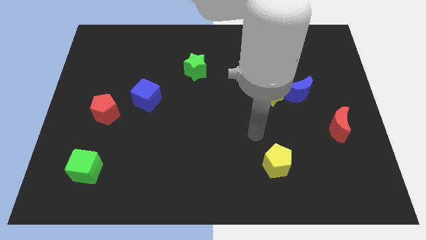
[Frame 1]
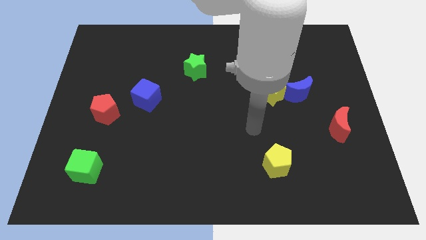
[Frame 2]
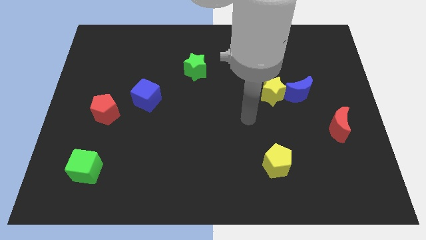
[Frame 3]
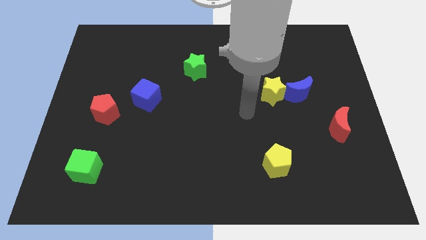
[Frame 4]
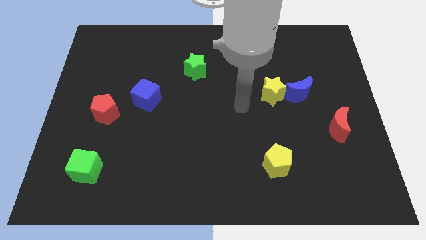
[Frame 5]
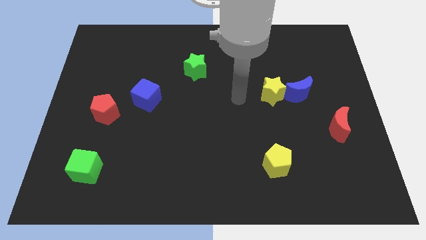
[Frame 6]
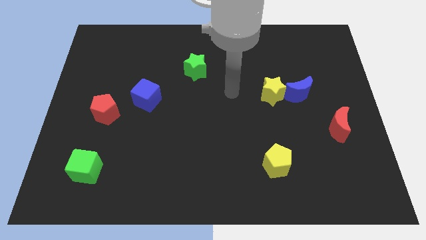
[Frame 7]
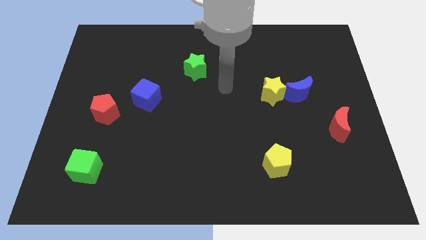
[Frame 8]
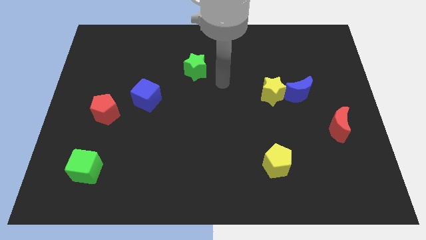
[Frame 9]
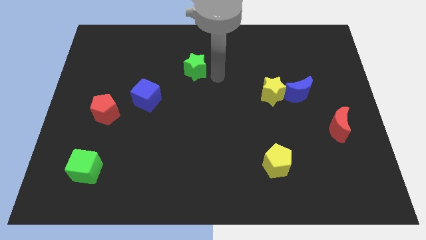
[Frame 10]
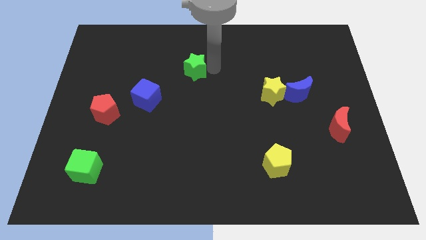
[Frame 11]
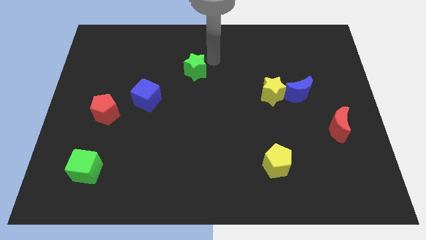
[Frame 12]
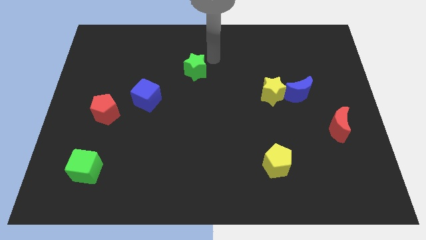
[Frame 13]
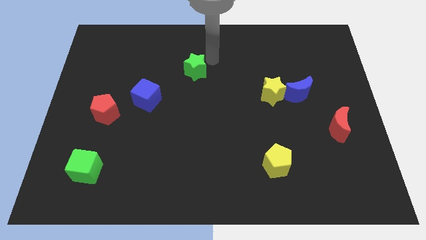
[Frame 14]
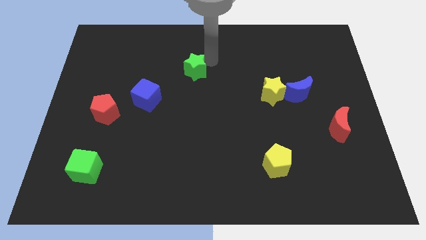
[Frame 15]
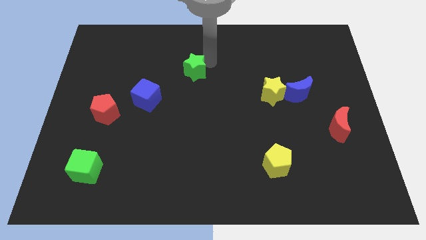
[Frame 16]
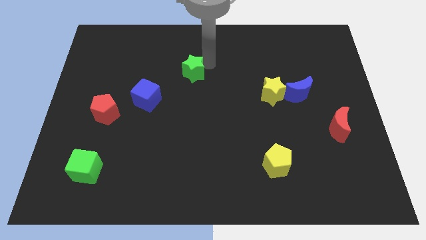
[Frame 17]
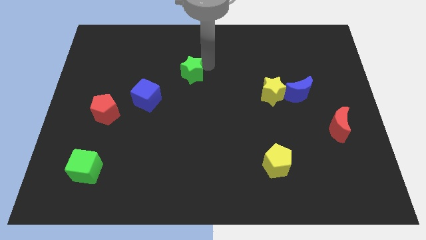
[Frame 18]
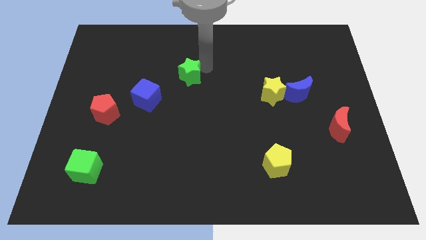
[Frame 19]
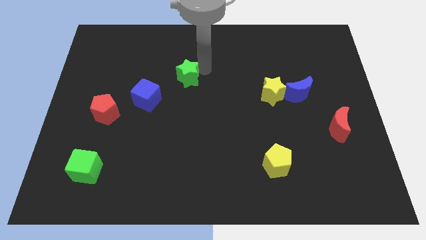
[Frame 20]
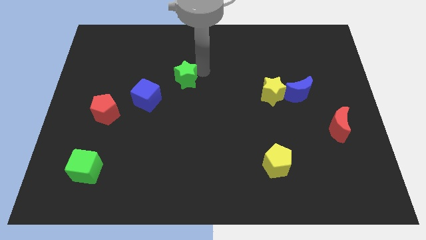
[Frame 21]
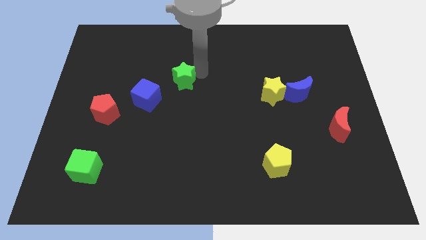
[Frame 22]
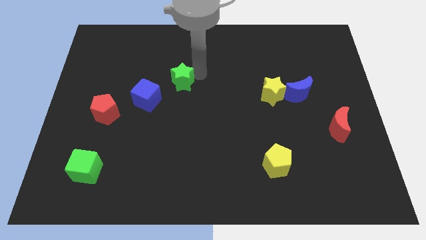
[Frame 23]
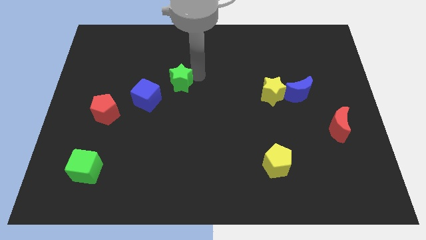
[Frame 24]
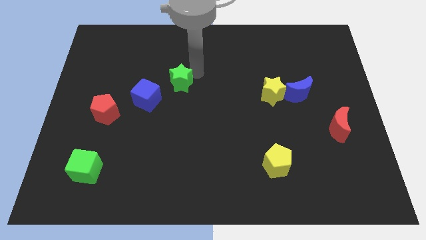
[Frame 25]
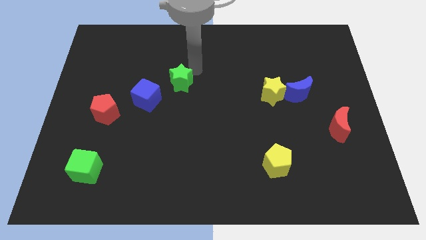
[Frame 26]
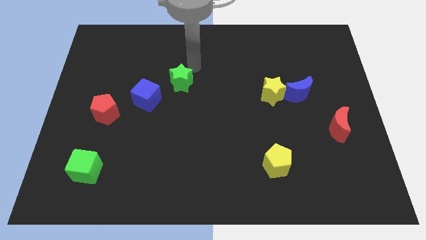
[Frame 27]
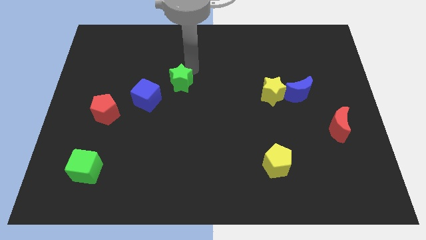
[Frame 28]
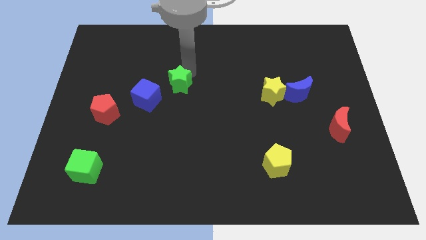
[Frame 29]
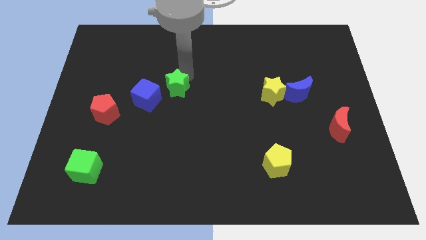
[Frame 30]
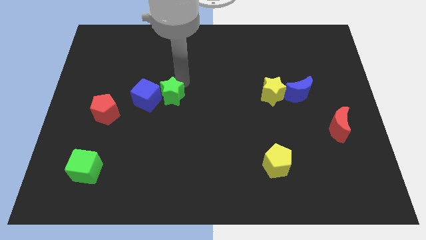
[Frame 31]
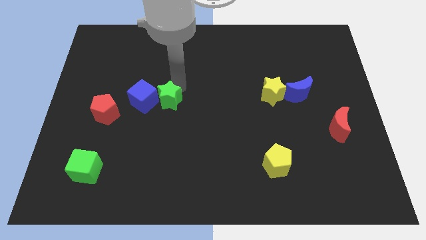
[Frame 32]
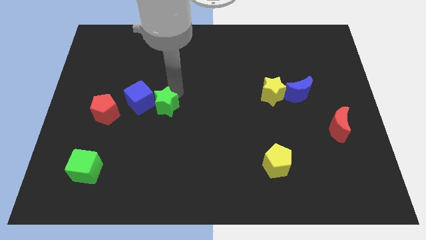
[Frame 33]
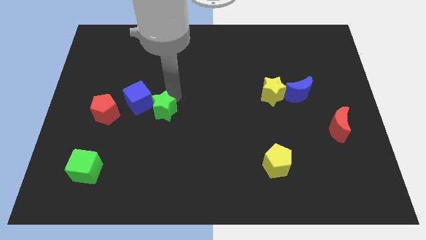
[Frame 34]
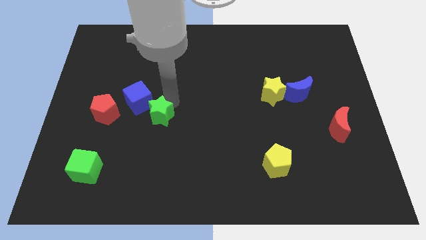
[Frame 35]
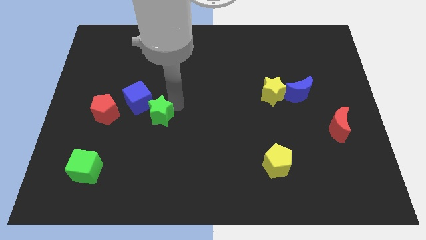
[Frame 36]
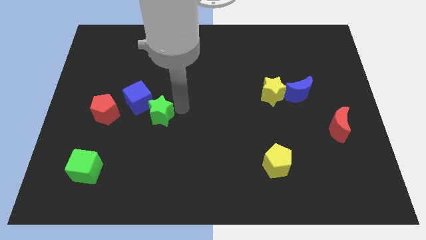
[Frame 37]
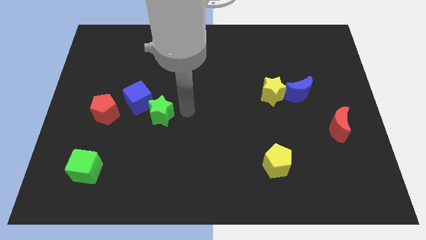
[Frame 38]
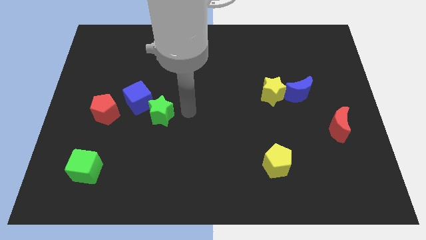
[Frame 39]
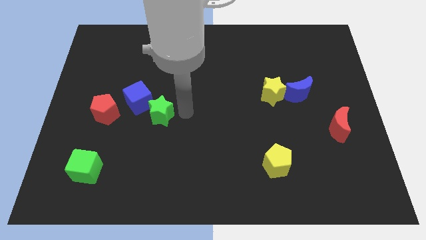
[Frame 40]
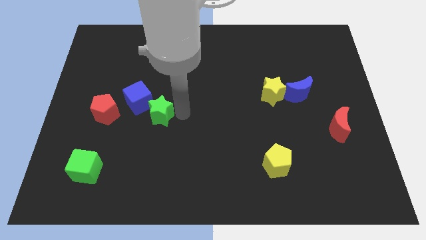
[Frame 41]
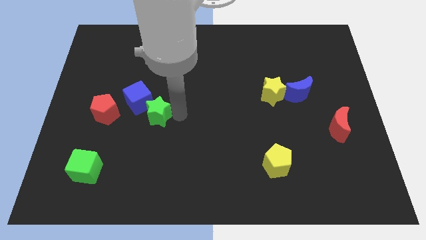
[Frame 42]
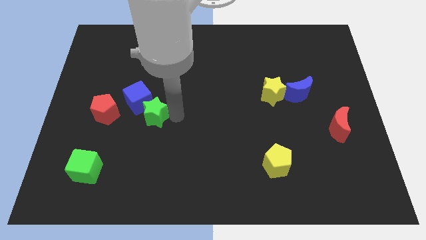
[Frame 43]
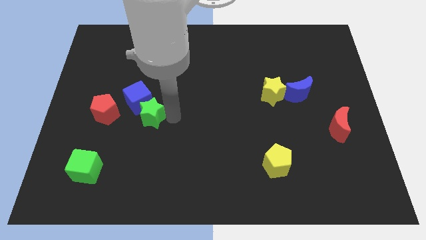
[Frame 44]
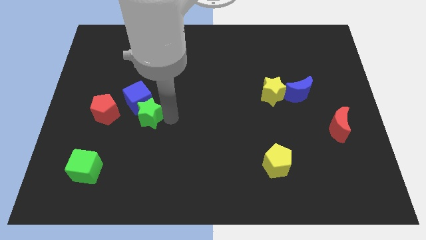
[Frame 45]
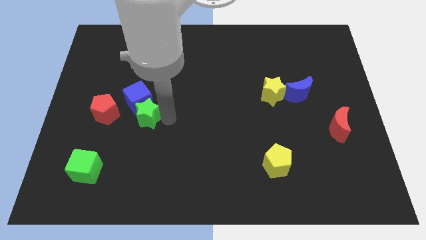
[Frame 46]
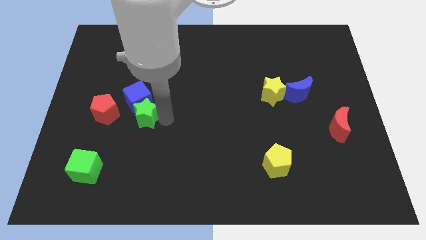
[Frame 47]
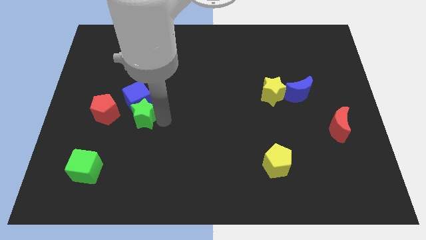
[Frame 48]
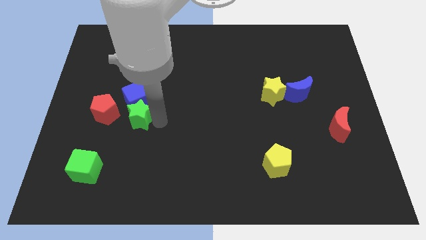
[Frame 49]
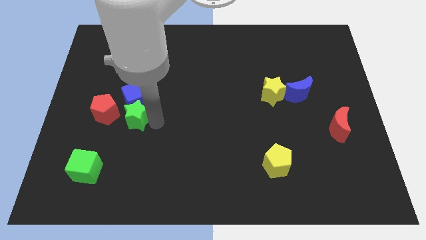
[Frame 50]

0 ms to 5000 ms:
push the green star down and then to the left

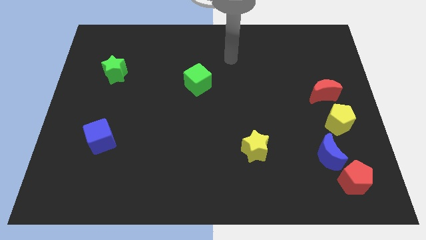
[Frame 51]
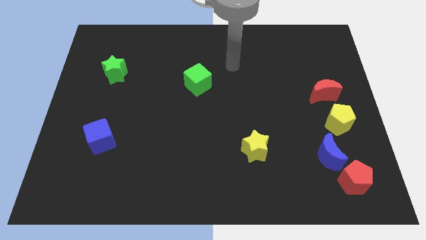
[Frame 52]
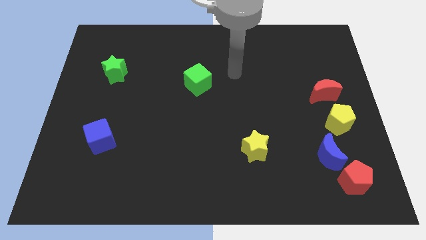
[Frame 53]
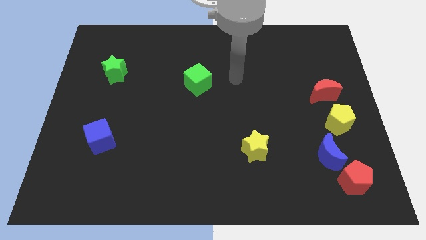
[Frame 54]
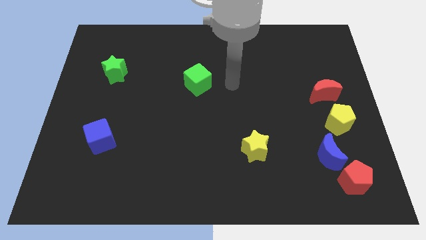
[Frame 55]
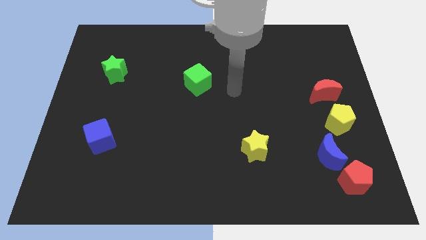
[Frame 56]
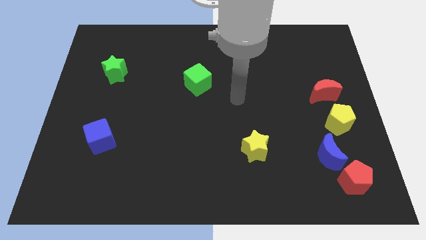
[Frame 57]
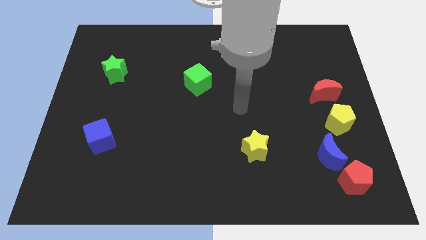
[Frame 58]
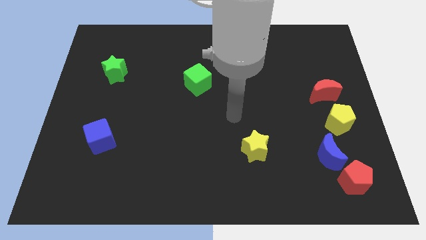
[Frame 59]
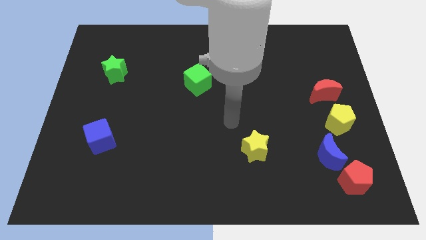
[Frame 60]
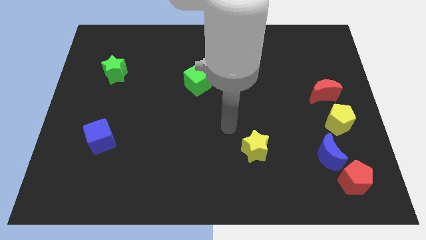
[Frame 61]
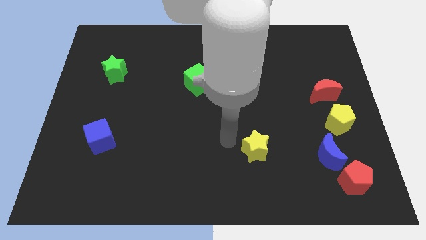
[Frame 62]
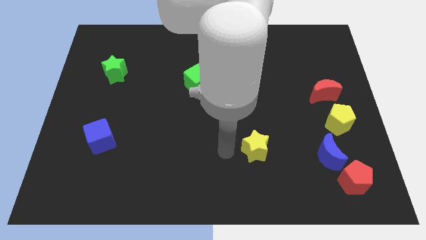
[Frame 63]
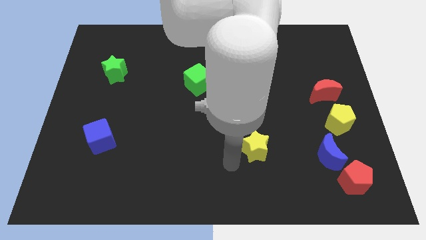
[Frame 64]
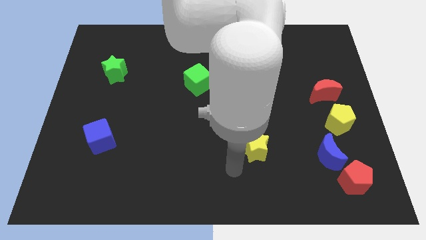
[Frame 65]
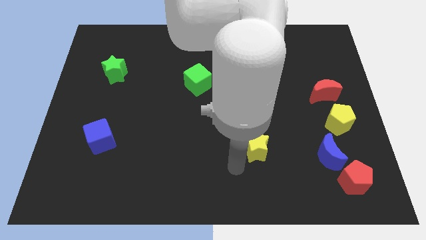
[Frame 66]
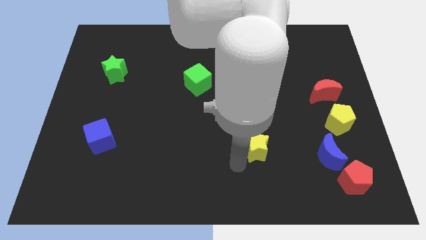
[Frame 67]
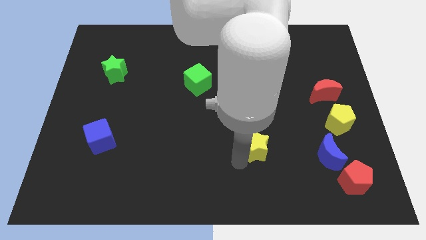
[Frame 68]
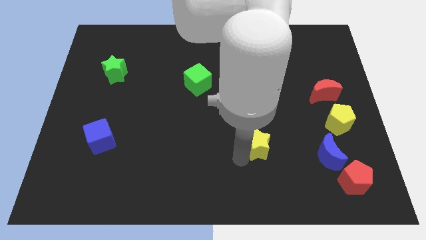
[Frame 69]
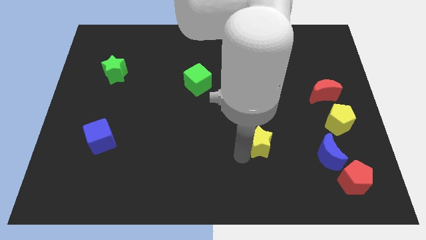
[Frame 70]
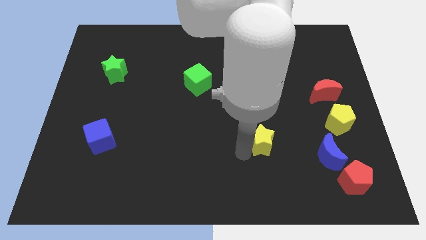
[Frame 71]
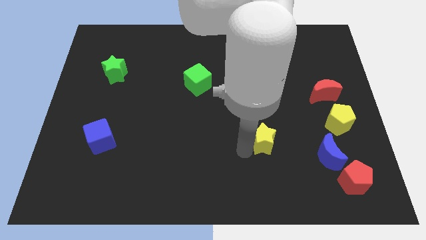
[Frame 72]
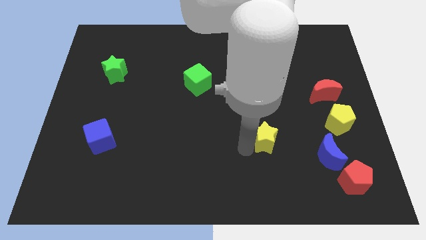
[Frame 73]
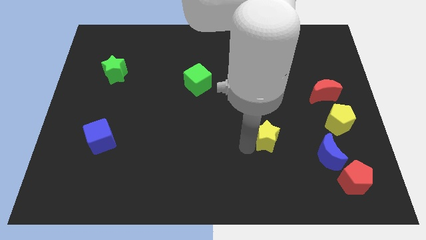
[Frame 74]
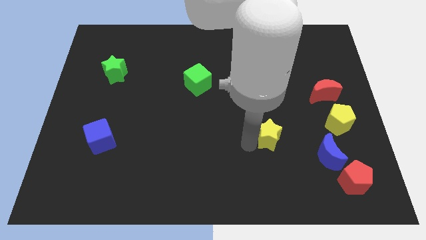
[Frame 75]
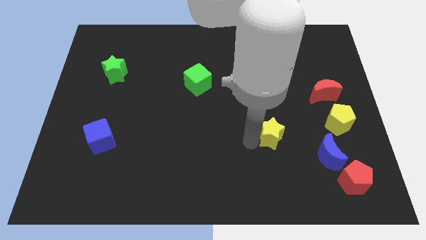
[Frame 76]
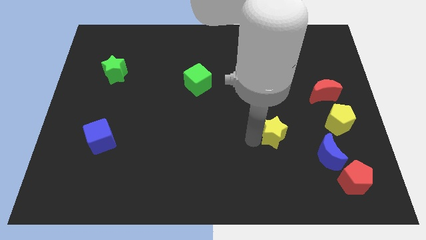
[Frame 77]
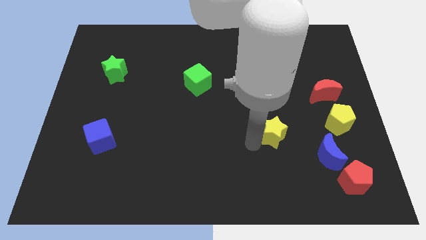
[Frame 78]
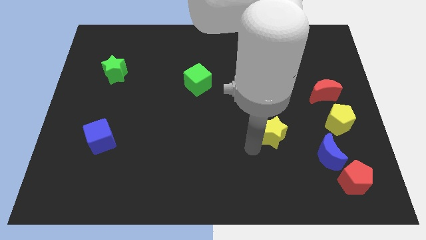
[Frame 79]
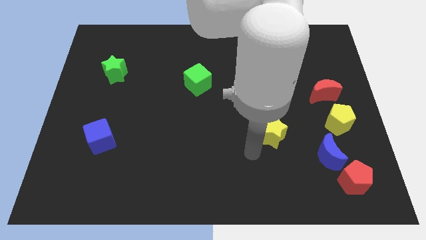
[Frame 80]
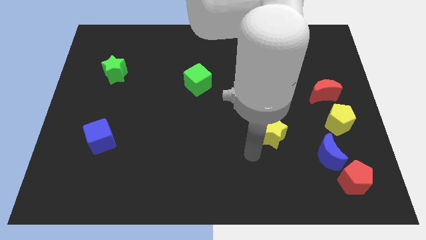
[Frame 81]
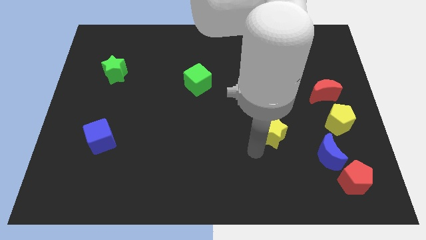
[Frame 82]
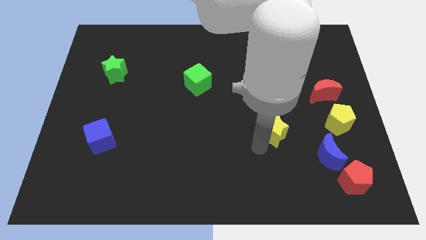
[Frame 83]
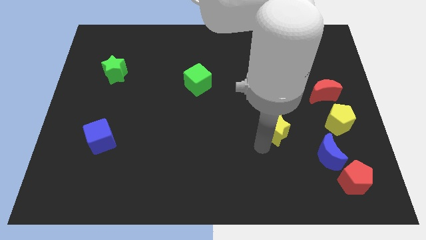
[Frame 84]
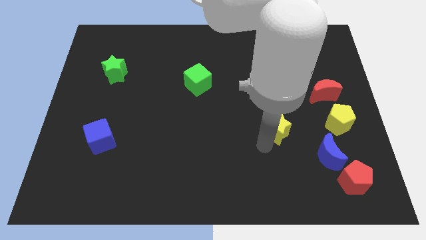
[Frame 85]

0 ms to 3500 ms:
slide the yellow star slightly upwards and right diagonally
